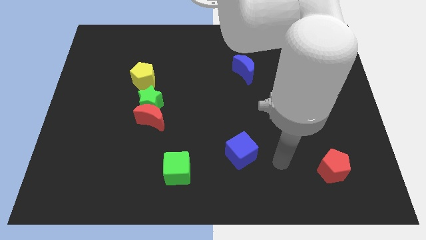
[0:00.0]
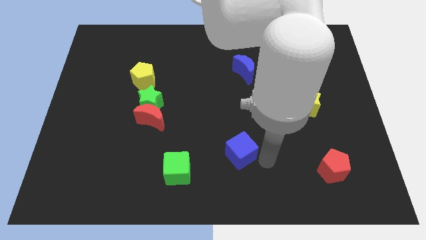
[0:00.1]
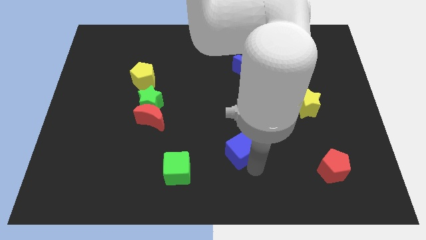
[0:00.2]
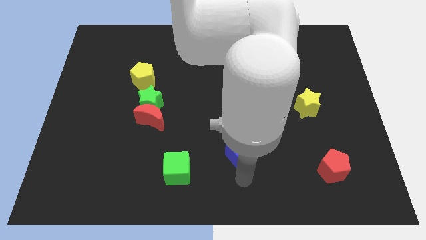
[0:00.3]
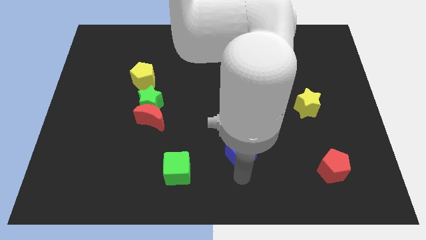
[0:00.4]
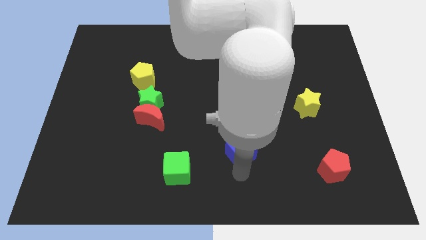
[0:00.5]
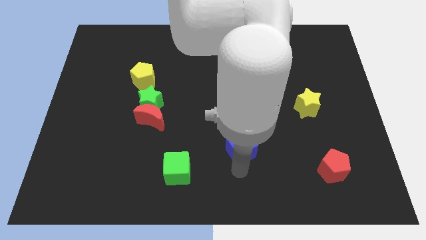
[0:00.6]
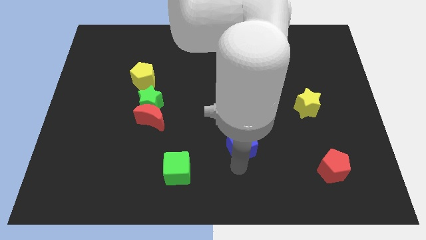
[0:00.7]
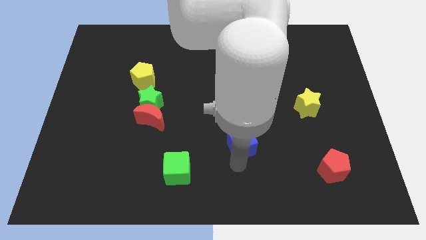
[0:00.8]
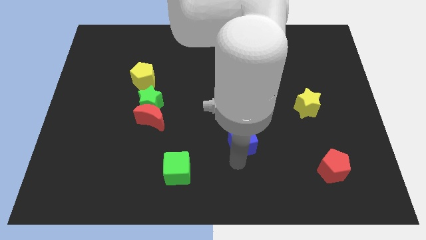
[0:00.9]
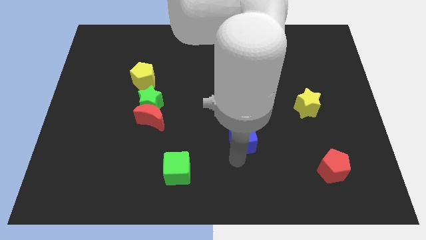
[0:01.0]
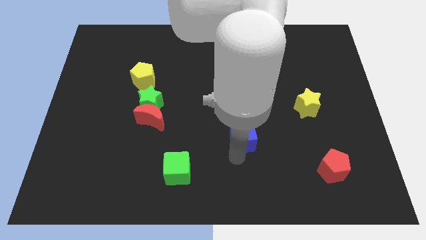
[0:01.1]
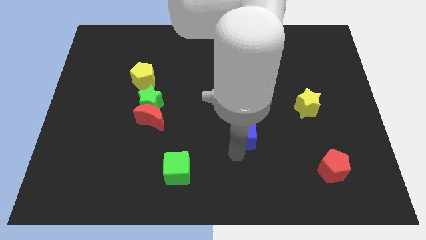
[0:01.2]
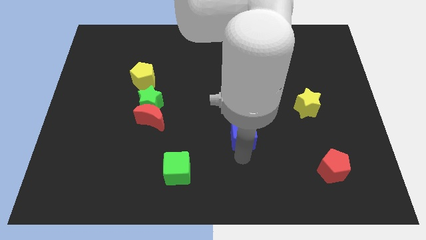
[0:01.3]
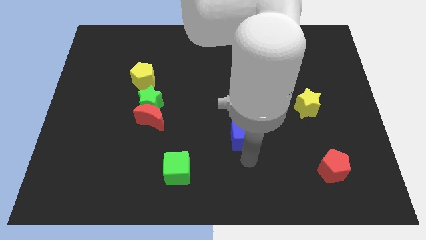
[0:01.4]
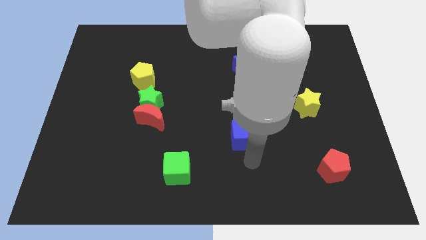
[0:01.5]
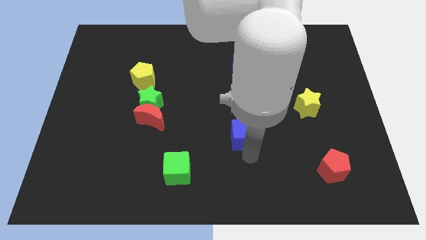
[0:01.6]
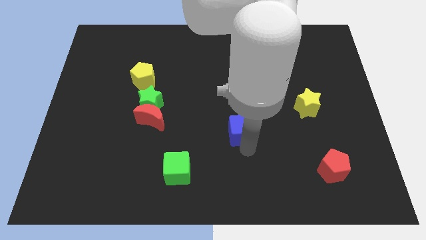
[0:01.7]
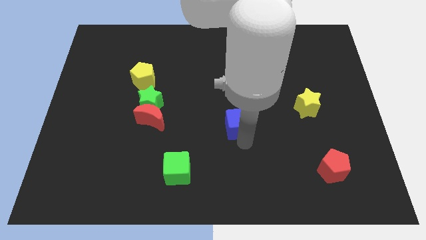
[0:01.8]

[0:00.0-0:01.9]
slide the blue cube upwards a bit

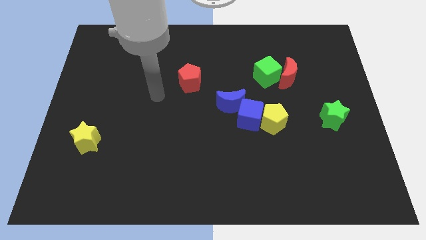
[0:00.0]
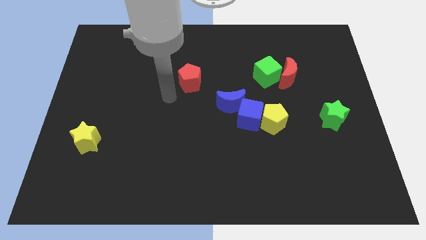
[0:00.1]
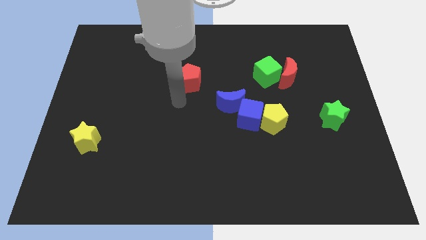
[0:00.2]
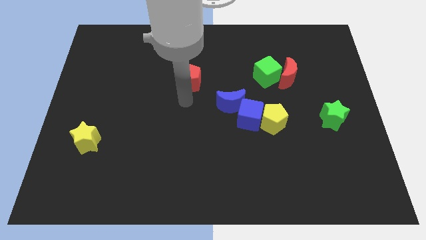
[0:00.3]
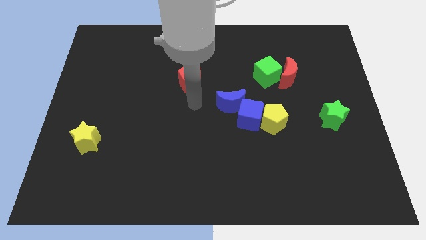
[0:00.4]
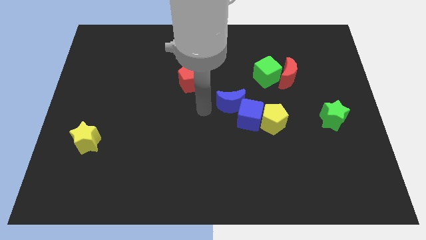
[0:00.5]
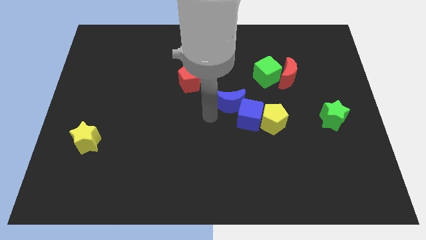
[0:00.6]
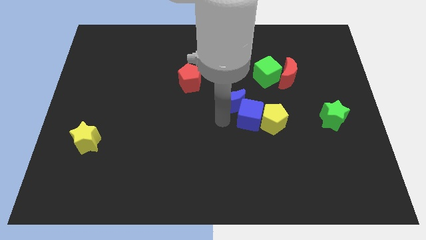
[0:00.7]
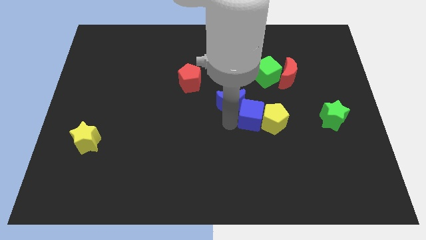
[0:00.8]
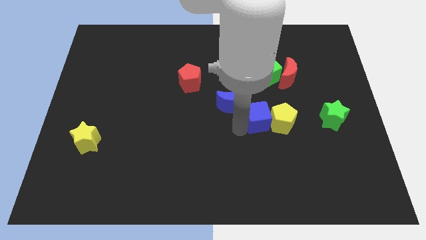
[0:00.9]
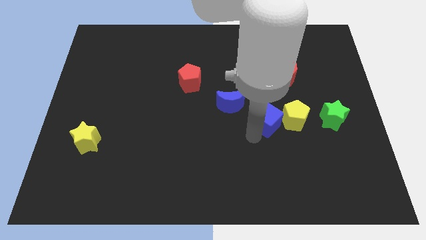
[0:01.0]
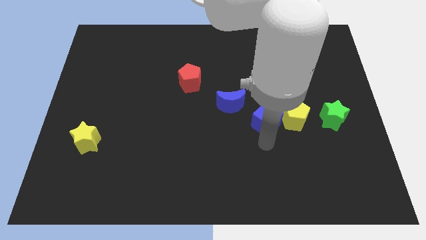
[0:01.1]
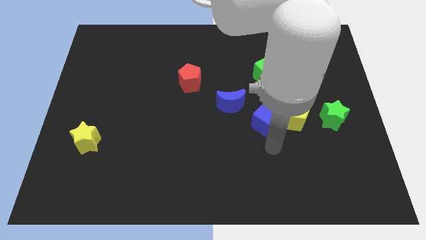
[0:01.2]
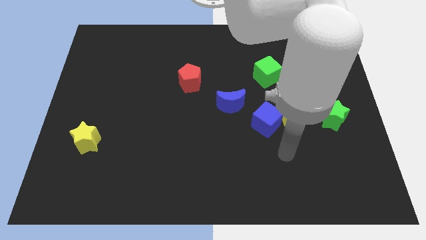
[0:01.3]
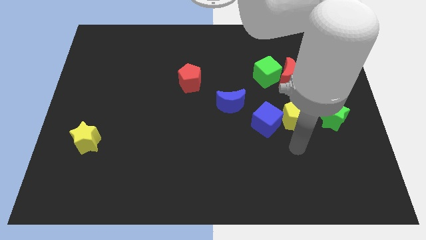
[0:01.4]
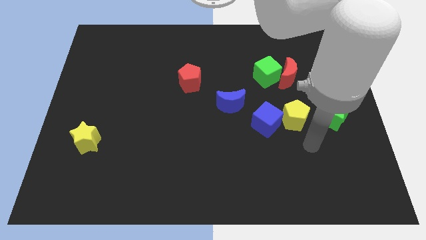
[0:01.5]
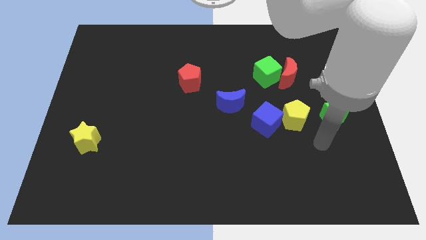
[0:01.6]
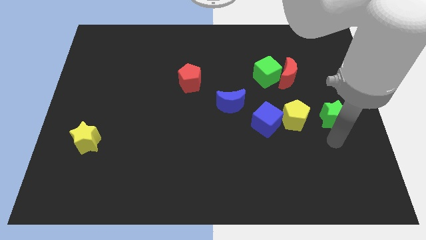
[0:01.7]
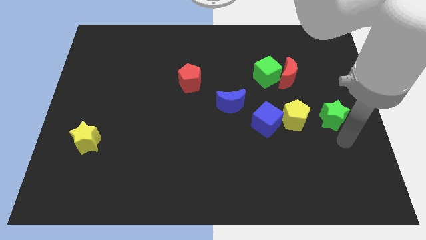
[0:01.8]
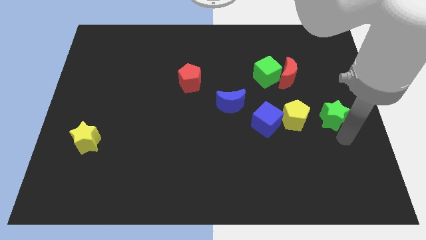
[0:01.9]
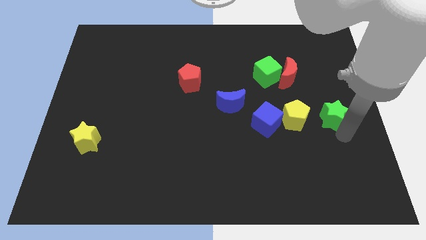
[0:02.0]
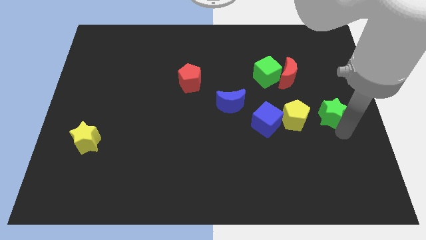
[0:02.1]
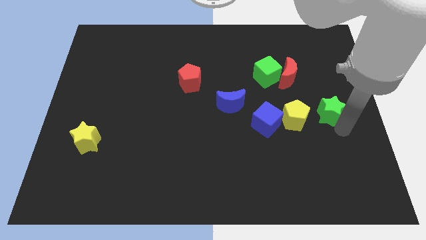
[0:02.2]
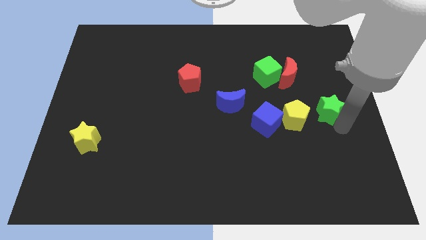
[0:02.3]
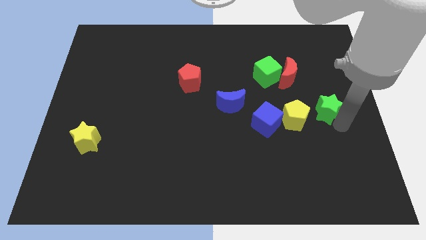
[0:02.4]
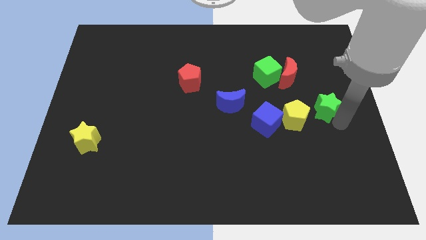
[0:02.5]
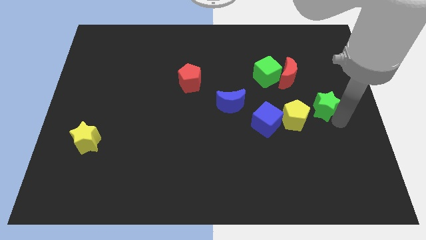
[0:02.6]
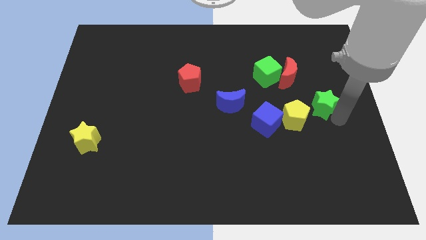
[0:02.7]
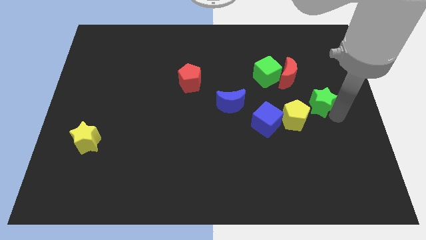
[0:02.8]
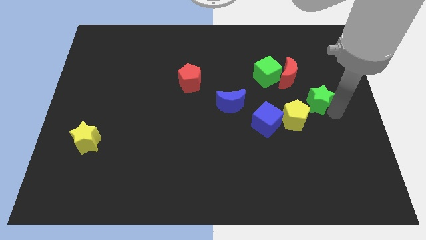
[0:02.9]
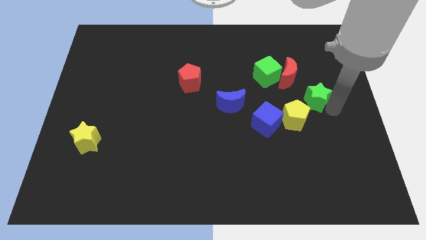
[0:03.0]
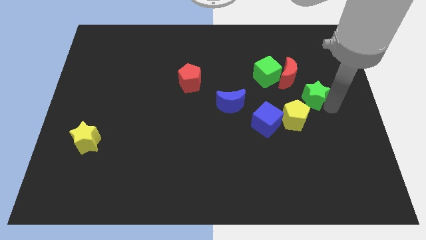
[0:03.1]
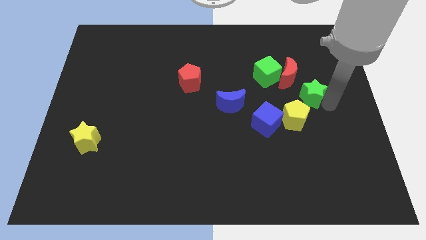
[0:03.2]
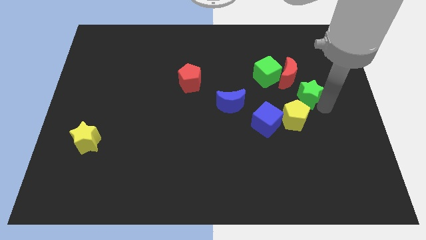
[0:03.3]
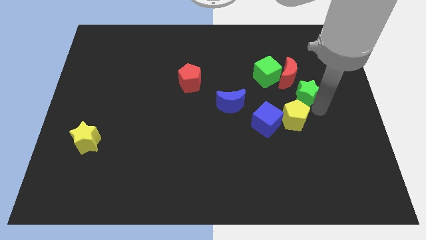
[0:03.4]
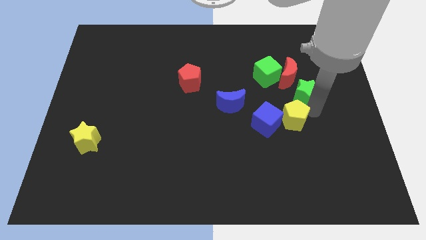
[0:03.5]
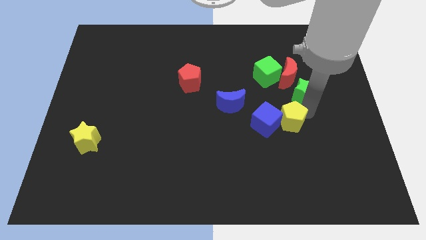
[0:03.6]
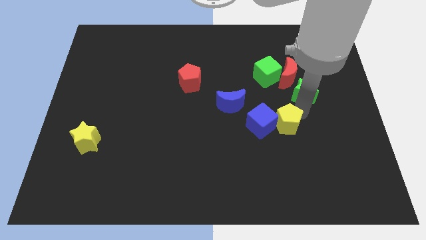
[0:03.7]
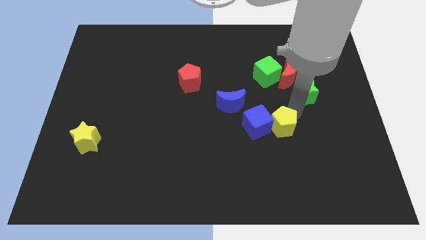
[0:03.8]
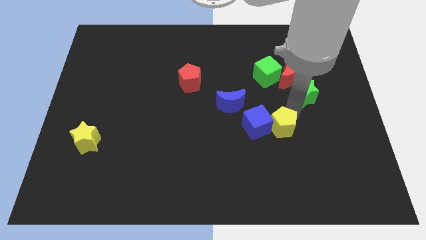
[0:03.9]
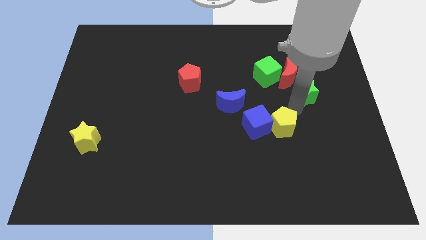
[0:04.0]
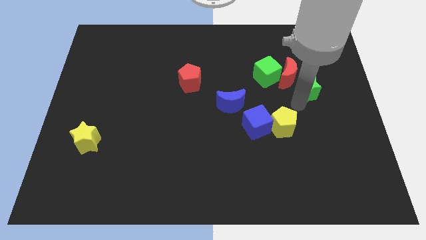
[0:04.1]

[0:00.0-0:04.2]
slightly move the green star up

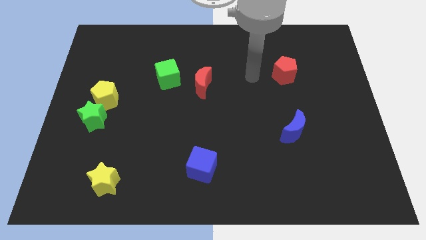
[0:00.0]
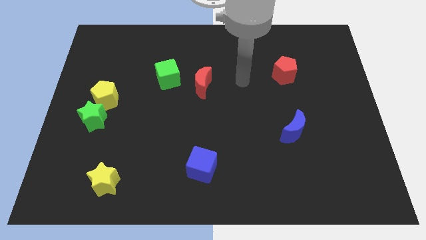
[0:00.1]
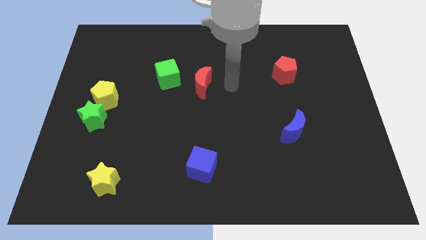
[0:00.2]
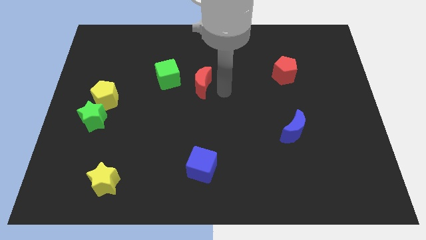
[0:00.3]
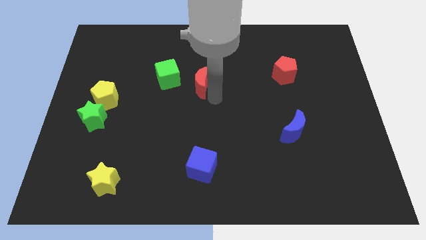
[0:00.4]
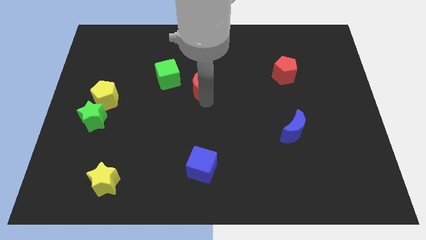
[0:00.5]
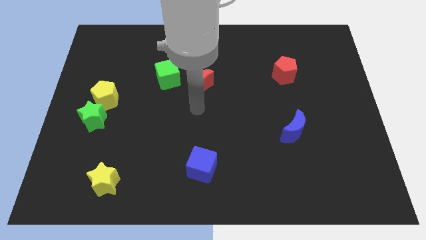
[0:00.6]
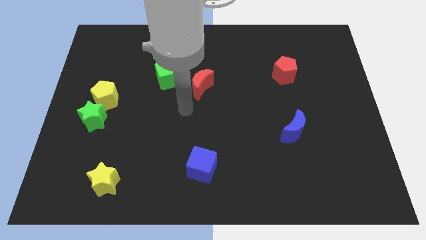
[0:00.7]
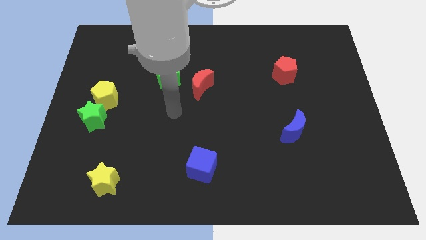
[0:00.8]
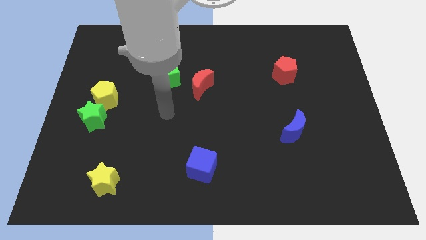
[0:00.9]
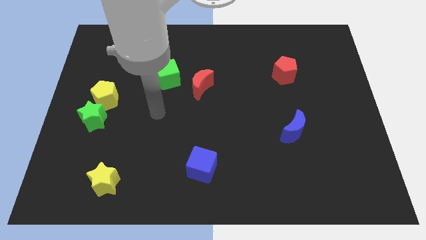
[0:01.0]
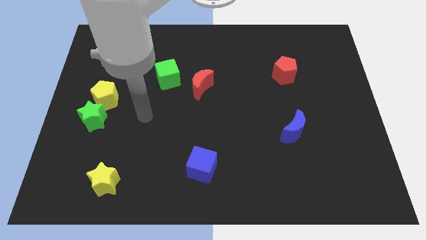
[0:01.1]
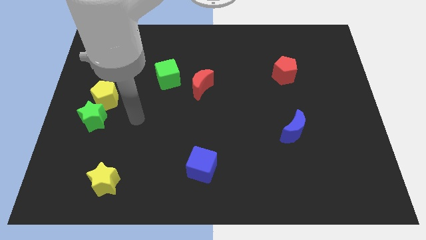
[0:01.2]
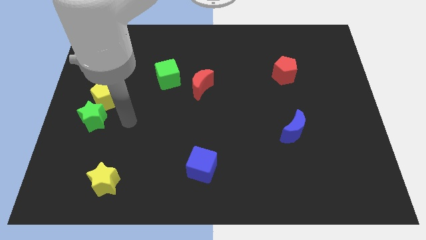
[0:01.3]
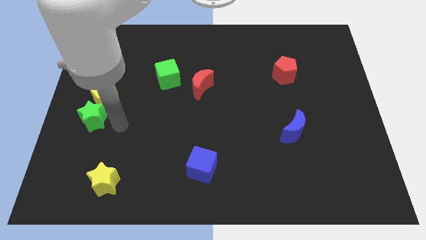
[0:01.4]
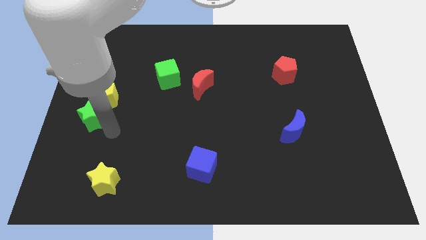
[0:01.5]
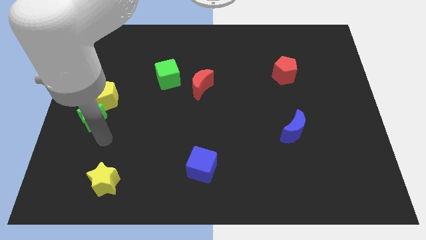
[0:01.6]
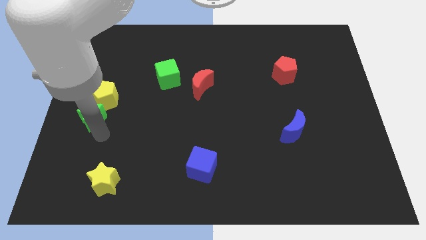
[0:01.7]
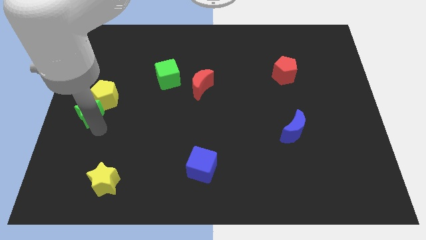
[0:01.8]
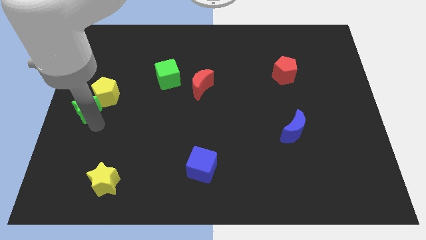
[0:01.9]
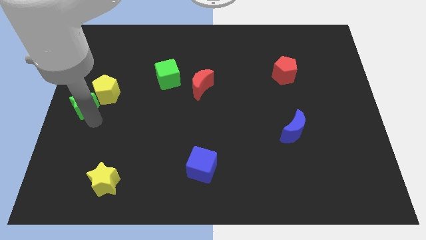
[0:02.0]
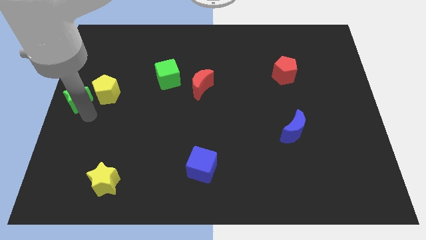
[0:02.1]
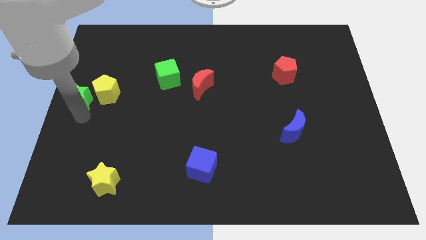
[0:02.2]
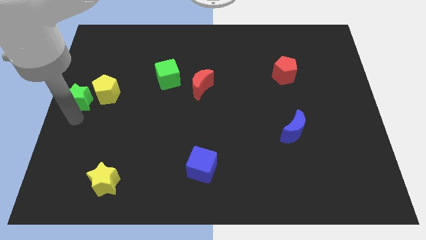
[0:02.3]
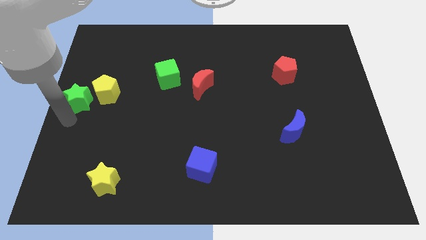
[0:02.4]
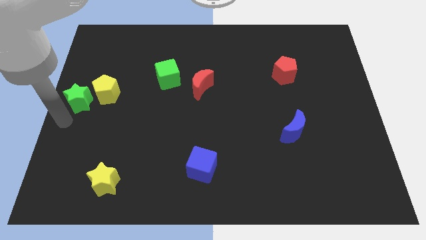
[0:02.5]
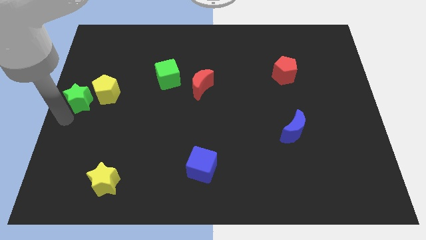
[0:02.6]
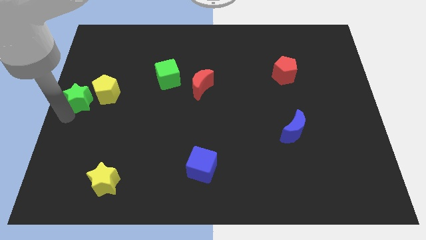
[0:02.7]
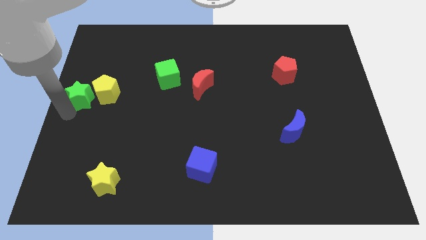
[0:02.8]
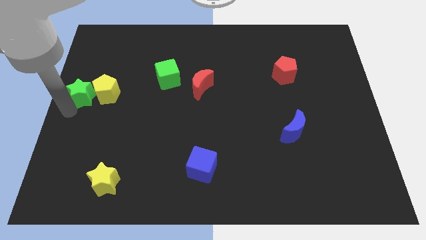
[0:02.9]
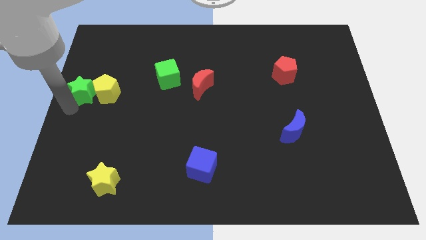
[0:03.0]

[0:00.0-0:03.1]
slightly move the green star upwards
